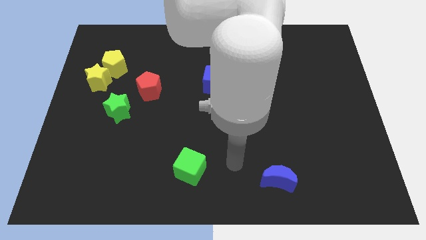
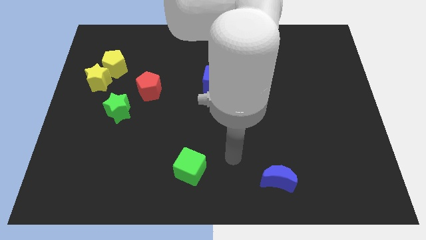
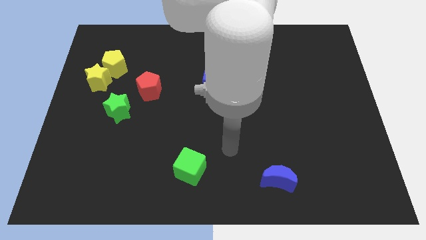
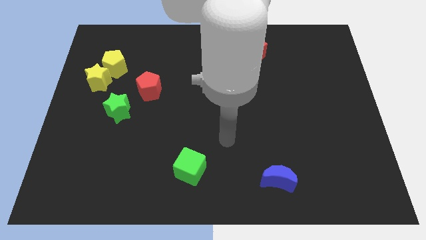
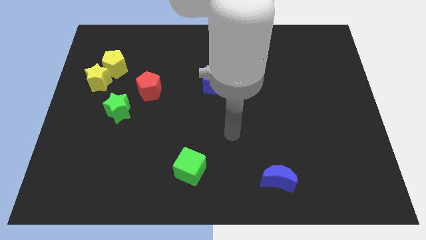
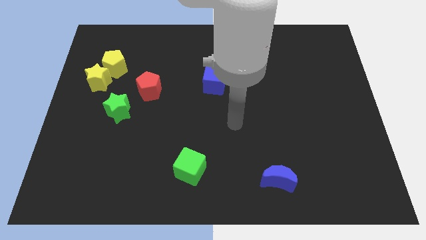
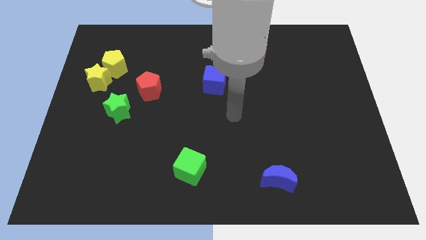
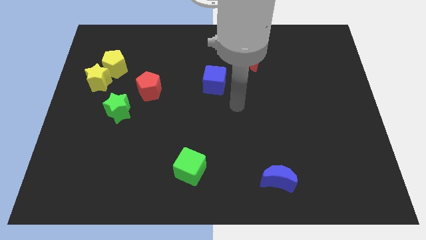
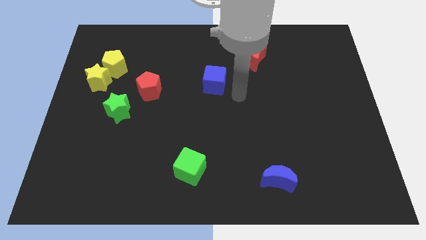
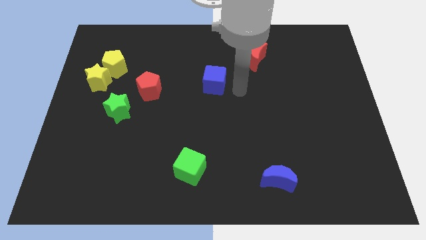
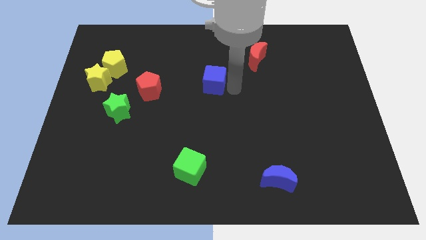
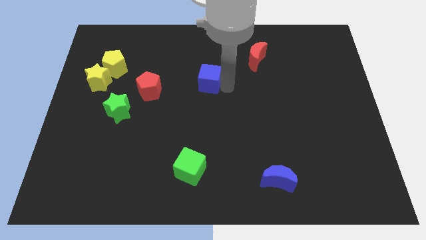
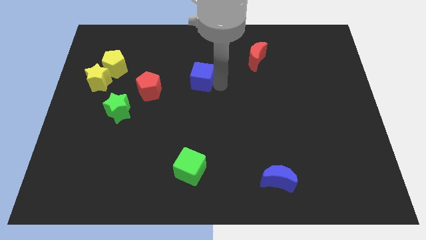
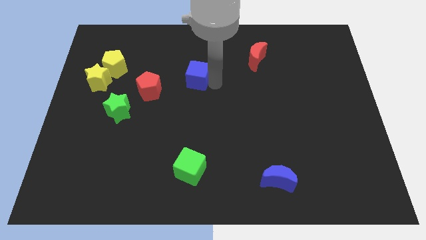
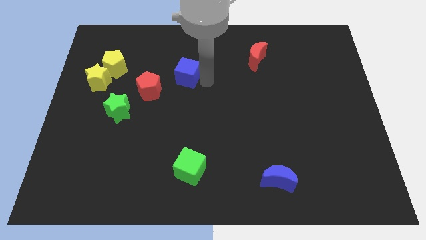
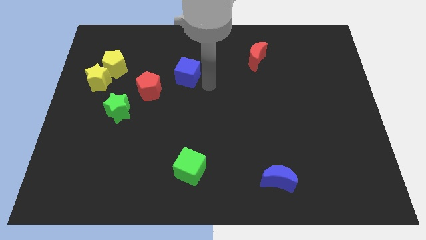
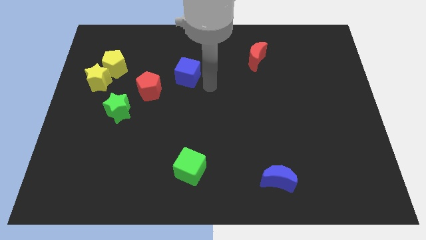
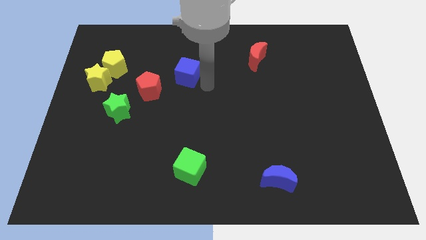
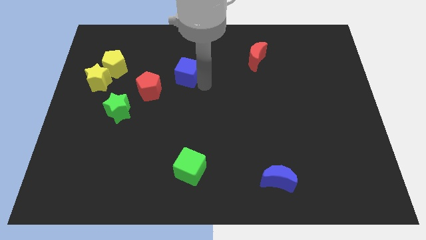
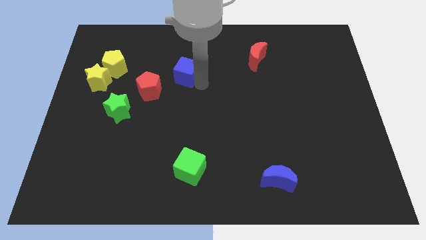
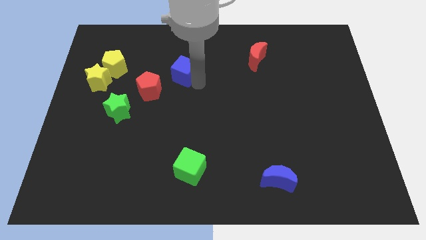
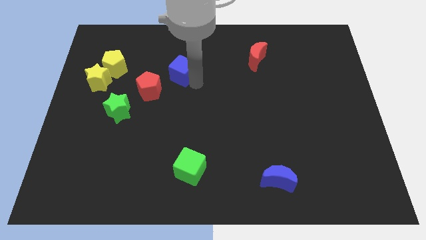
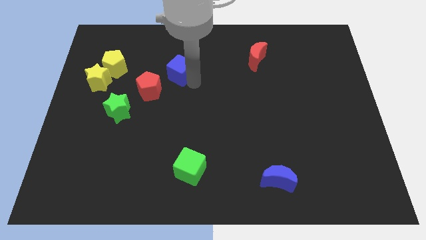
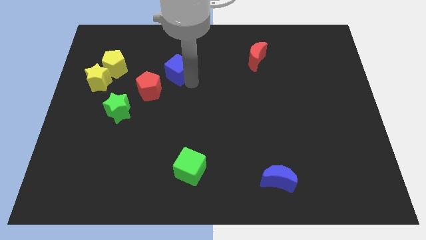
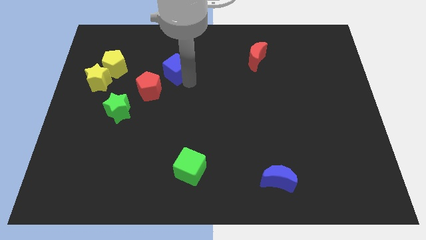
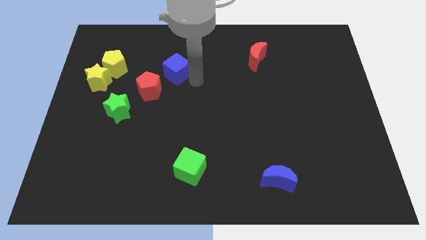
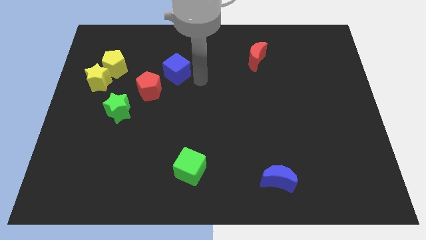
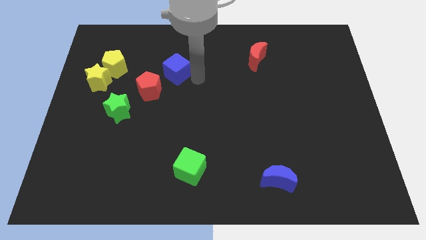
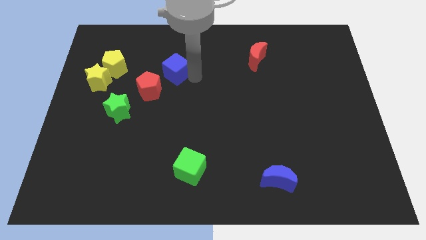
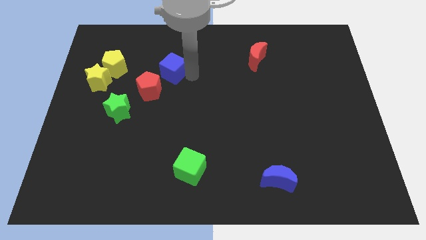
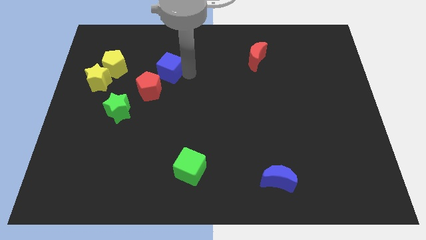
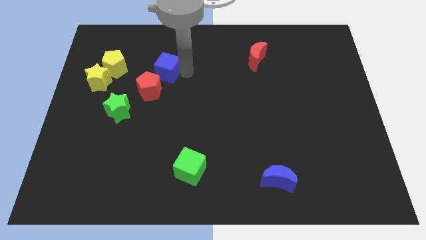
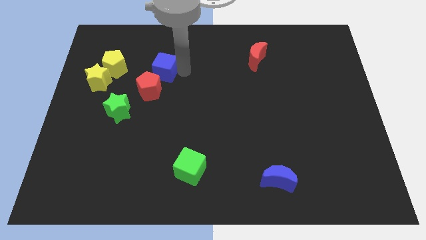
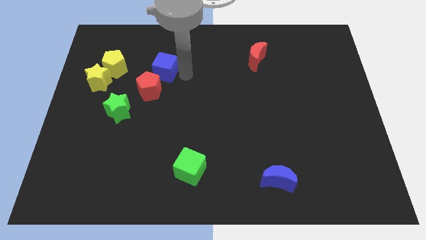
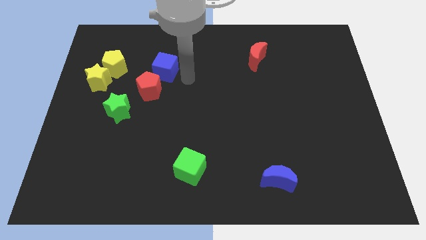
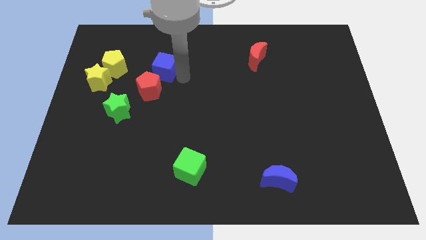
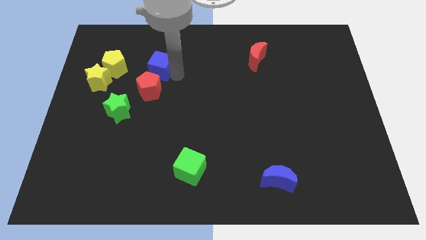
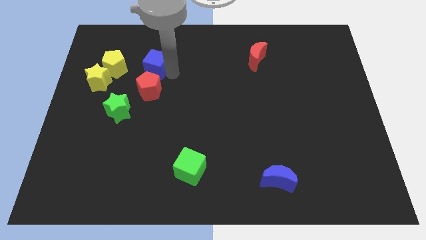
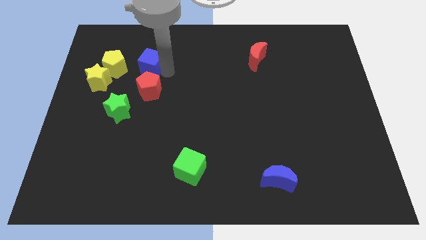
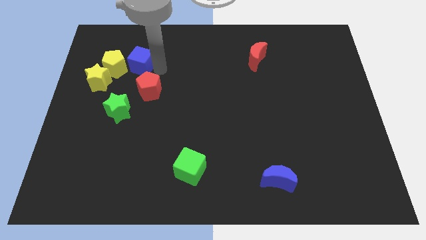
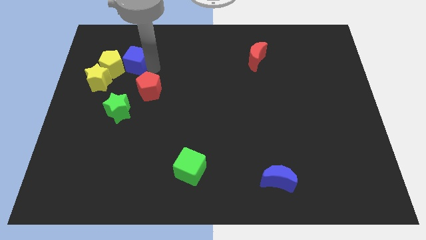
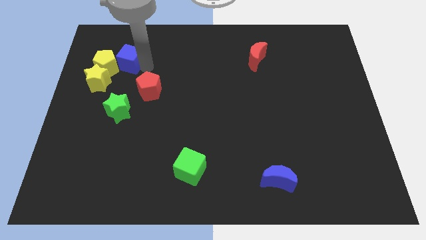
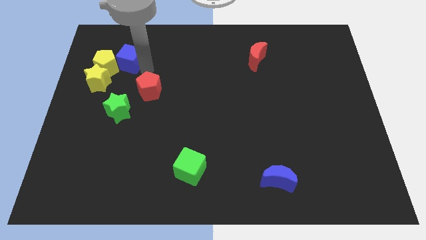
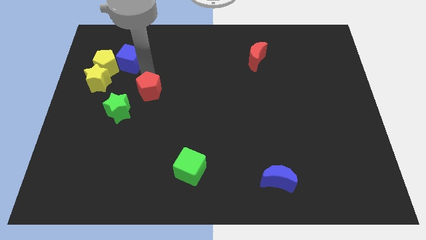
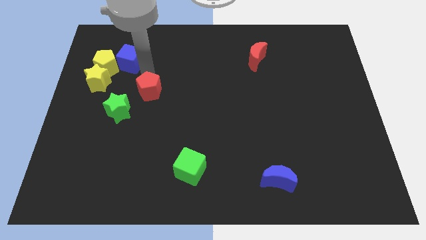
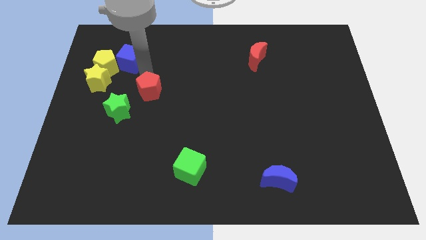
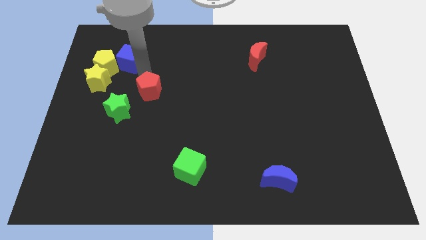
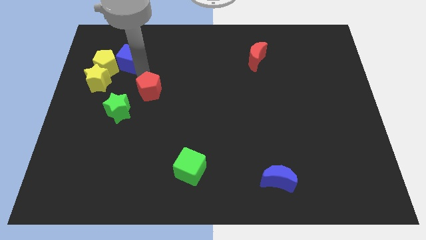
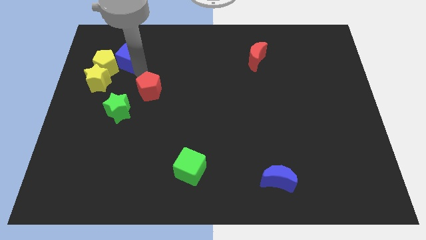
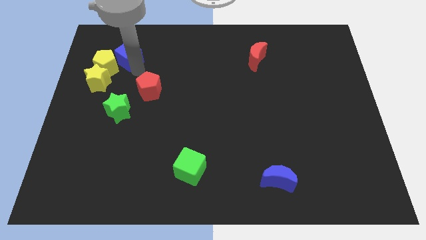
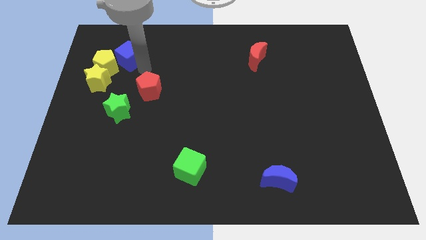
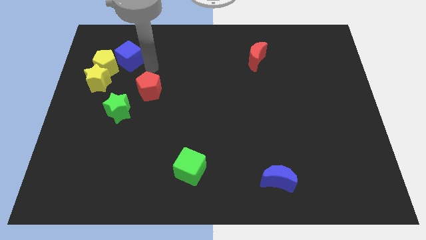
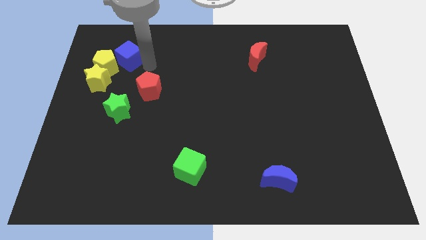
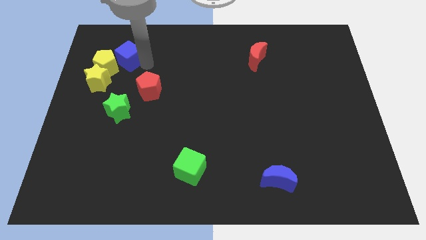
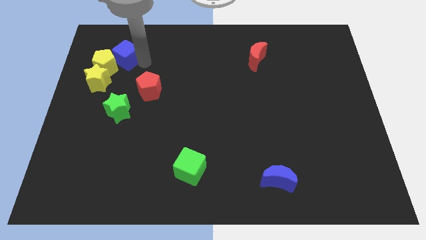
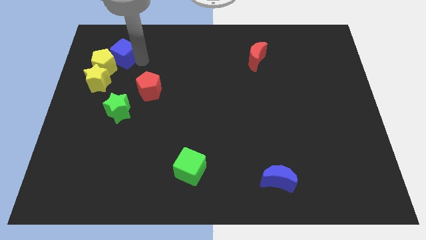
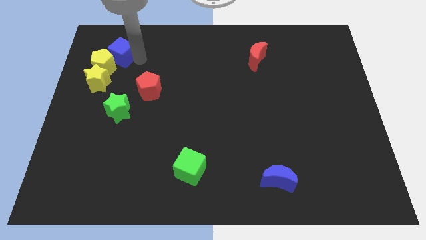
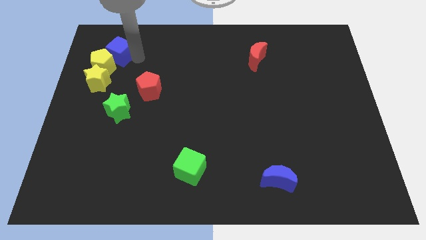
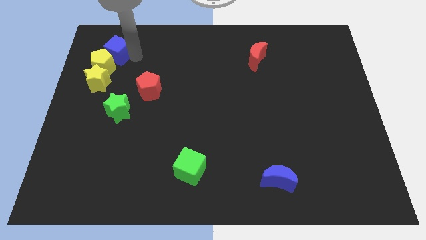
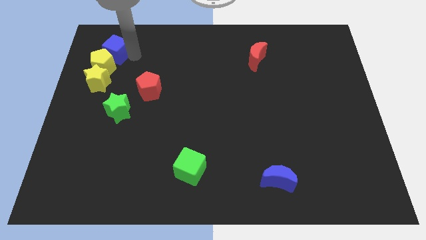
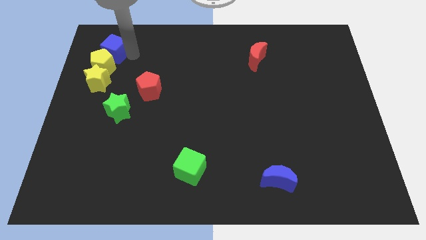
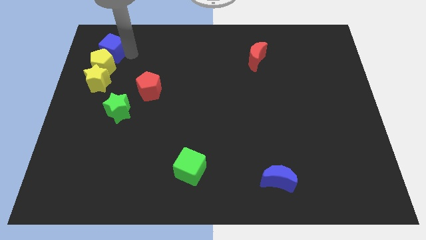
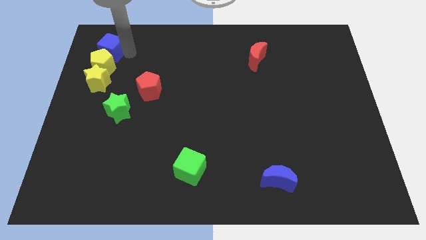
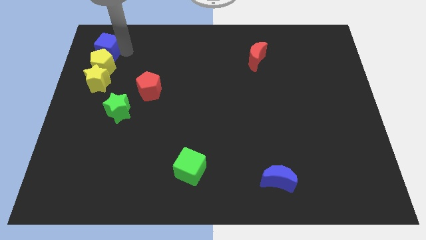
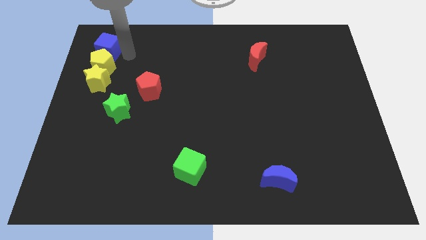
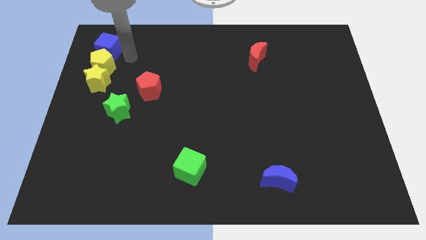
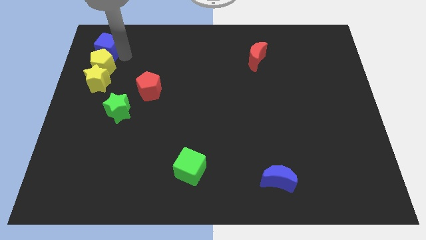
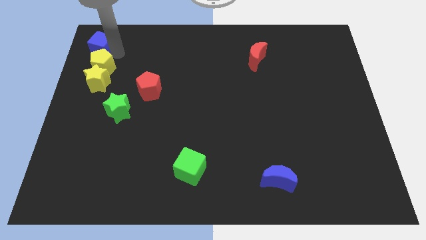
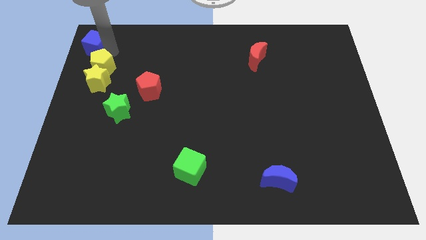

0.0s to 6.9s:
slide the blue cube to the top left of the board

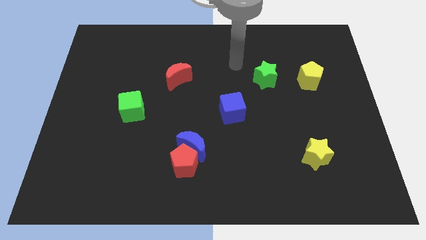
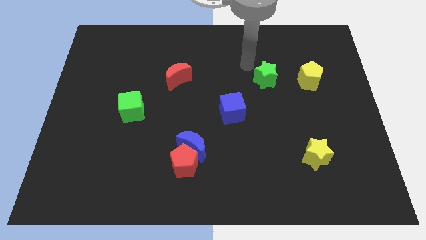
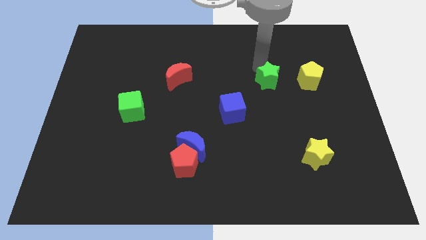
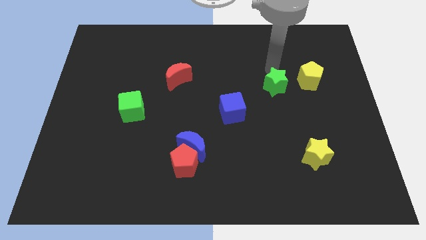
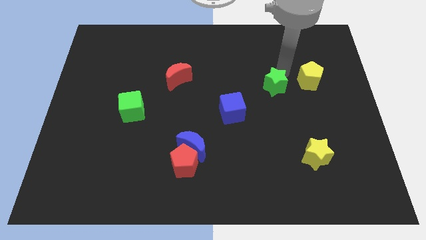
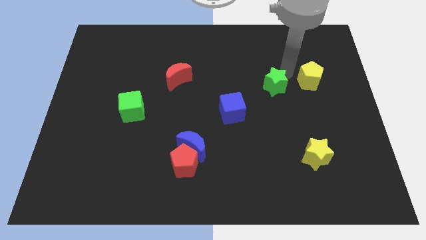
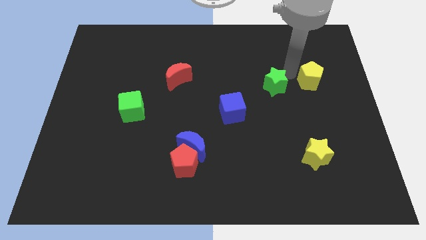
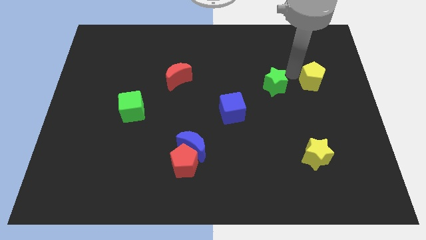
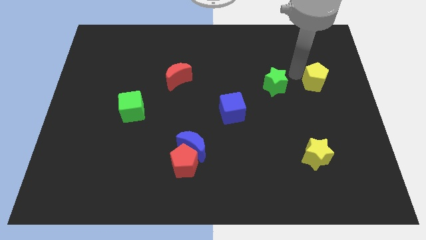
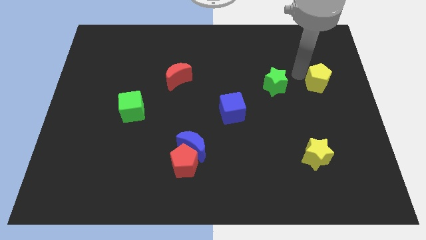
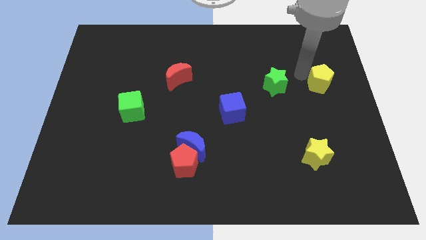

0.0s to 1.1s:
slide the yellow pentagon to the center right
